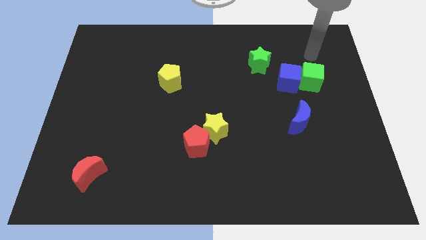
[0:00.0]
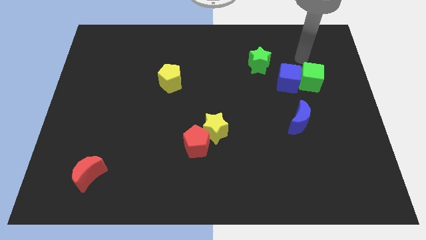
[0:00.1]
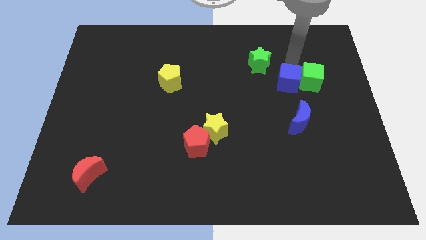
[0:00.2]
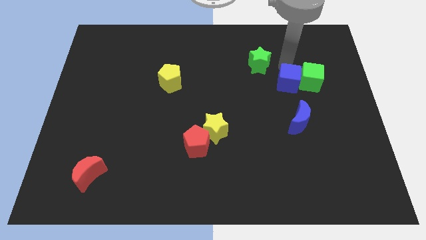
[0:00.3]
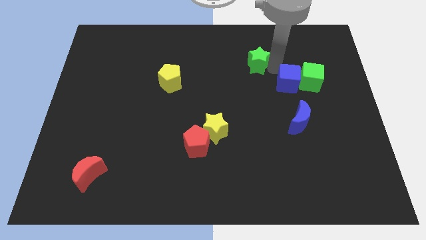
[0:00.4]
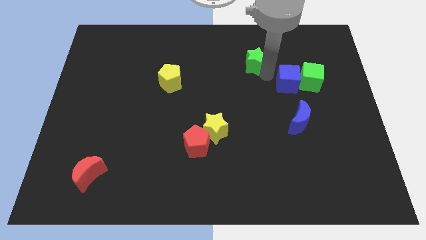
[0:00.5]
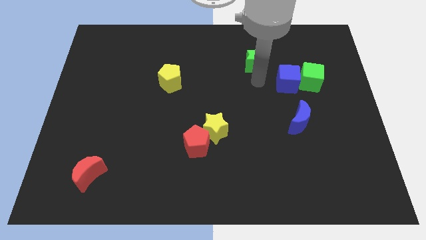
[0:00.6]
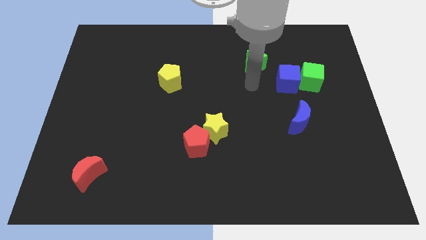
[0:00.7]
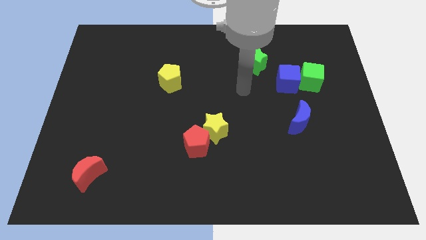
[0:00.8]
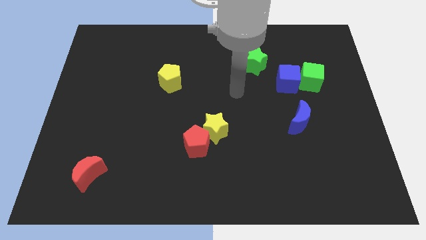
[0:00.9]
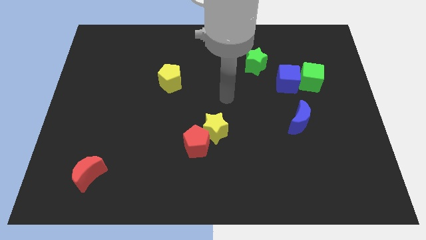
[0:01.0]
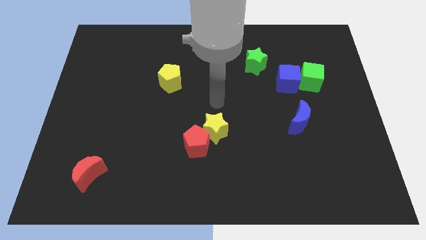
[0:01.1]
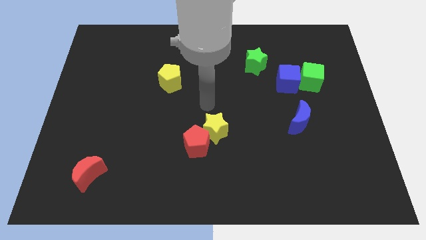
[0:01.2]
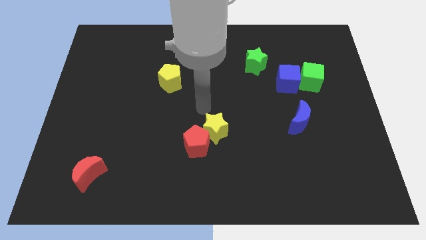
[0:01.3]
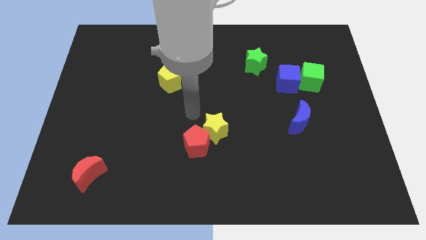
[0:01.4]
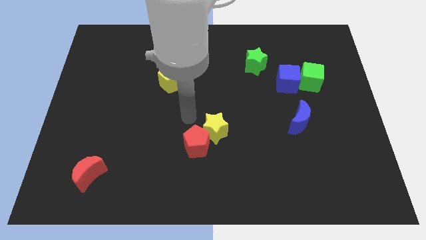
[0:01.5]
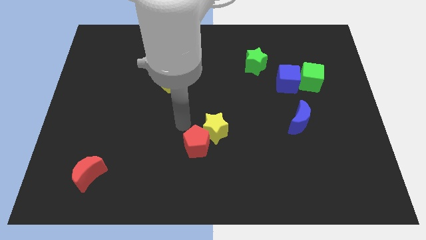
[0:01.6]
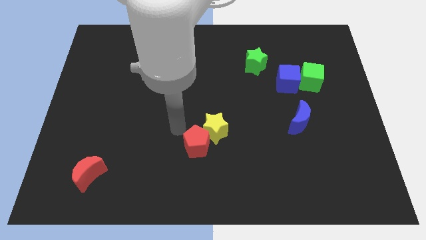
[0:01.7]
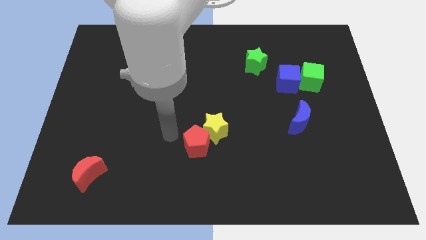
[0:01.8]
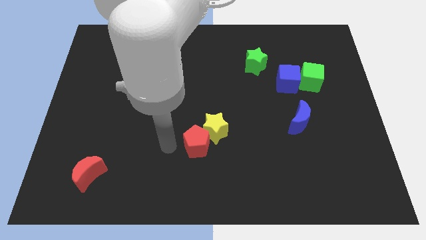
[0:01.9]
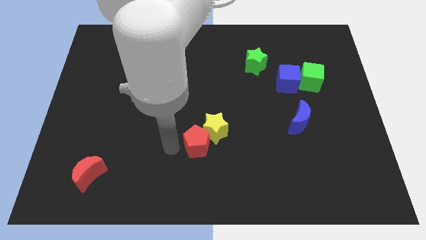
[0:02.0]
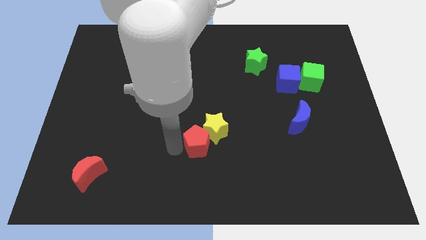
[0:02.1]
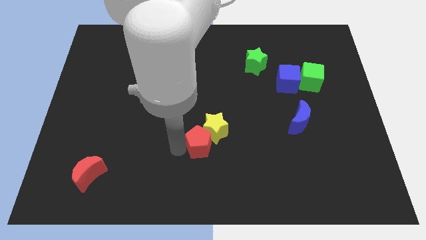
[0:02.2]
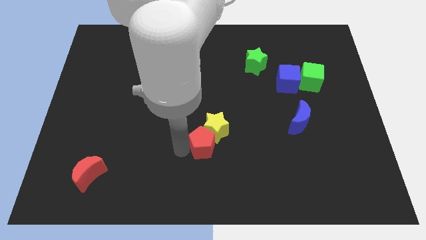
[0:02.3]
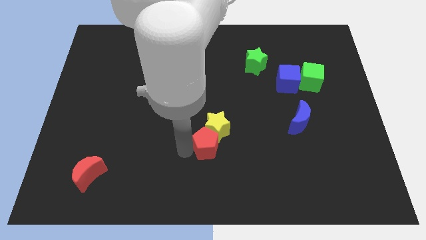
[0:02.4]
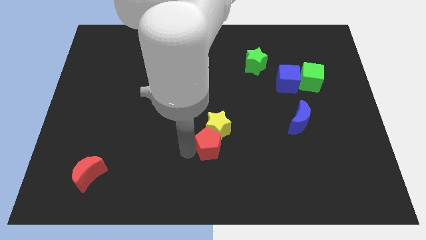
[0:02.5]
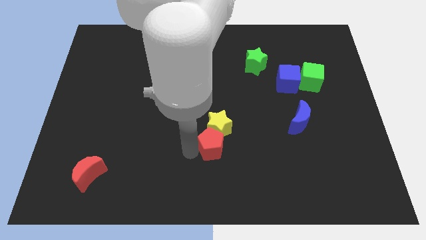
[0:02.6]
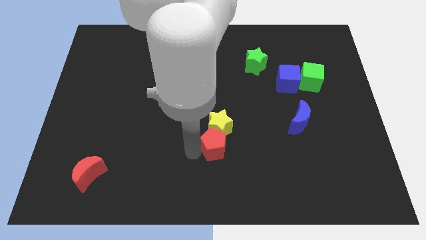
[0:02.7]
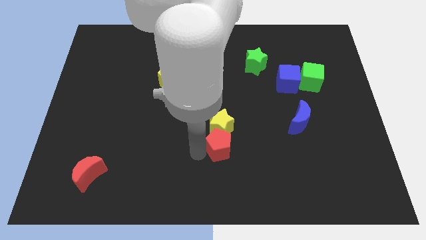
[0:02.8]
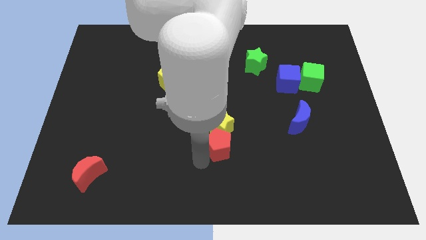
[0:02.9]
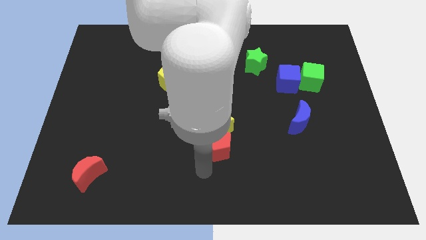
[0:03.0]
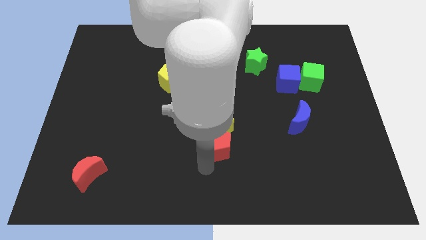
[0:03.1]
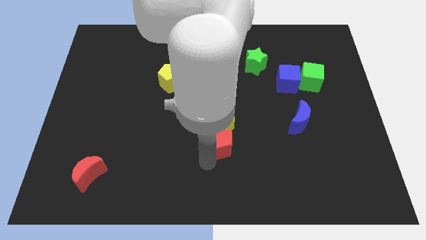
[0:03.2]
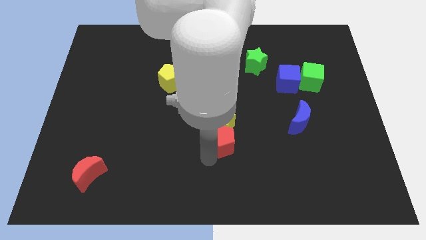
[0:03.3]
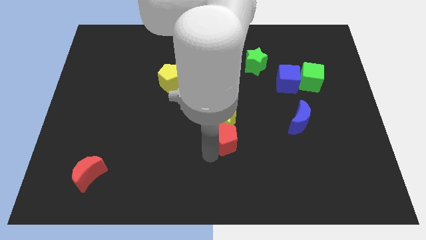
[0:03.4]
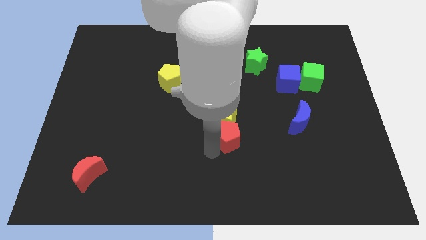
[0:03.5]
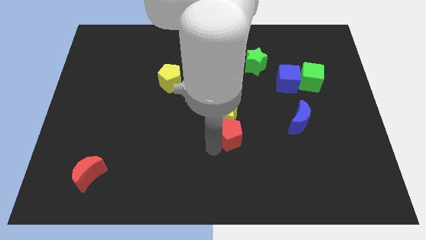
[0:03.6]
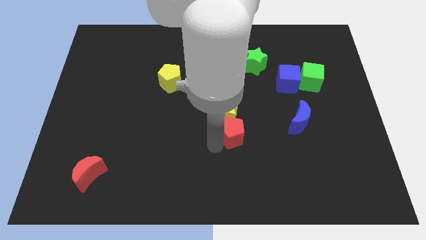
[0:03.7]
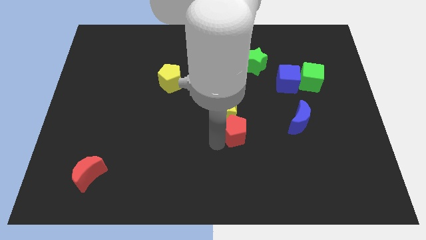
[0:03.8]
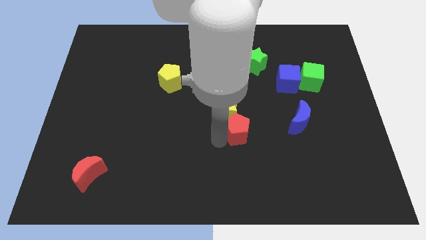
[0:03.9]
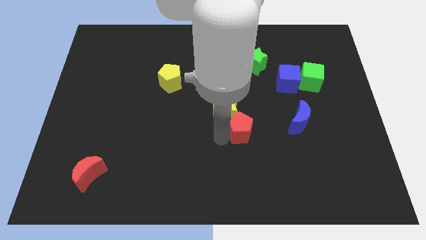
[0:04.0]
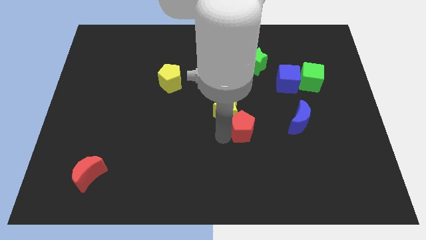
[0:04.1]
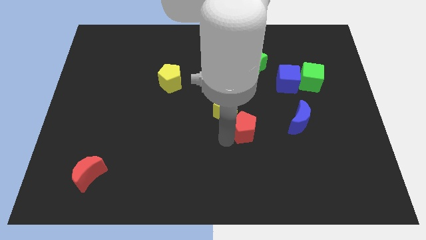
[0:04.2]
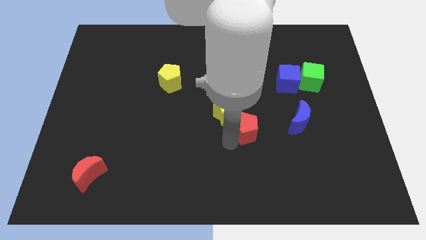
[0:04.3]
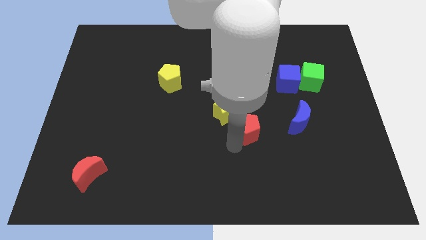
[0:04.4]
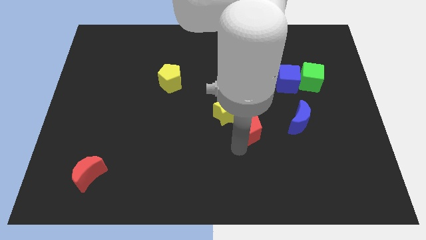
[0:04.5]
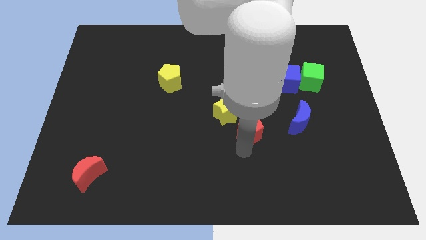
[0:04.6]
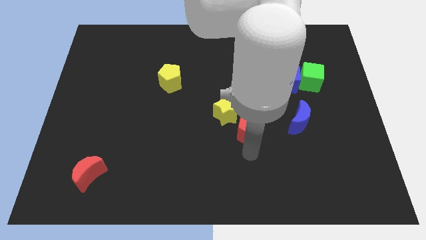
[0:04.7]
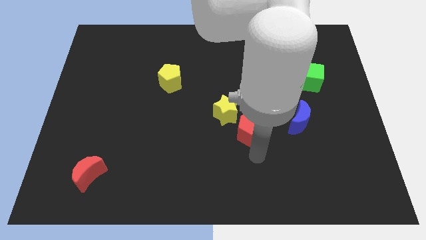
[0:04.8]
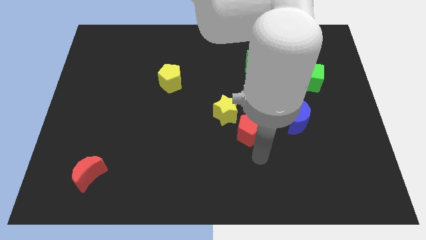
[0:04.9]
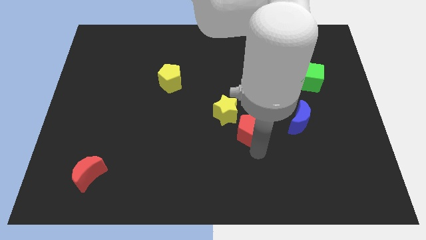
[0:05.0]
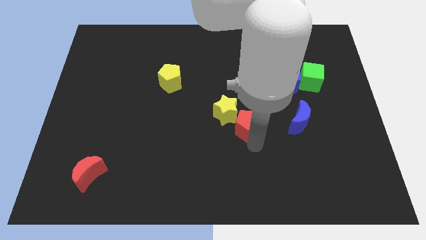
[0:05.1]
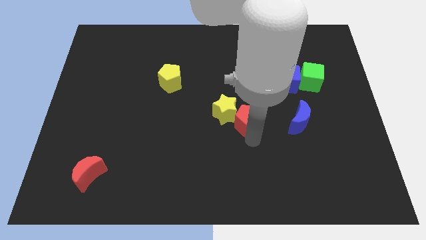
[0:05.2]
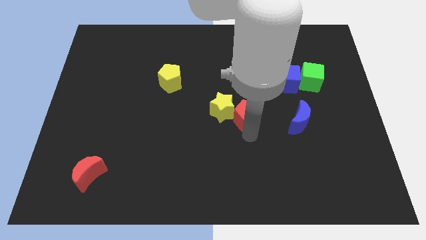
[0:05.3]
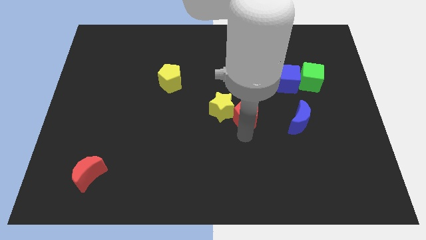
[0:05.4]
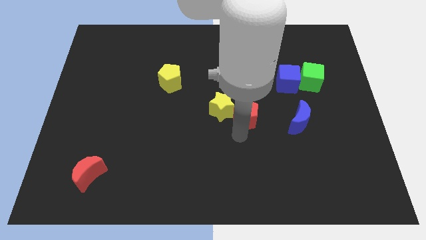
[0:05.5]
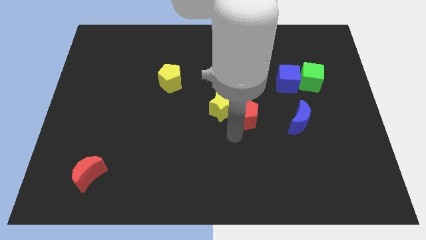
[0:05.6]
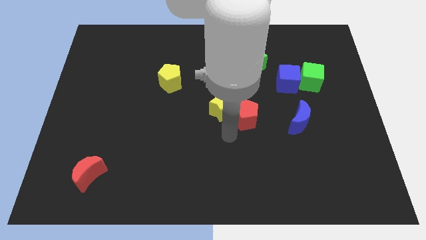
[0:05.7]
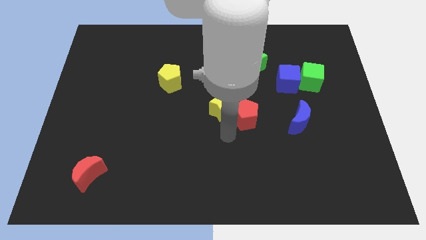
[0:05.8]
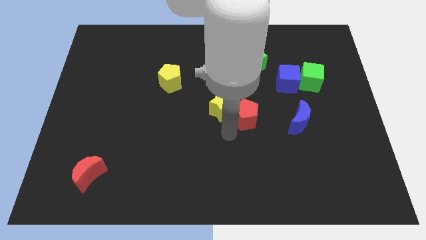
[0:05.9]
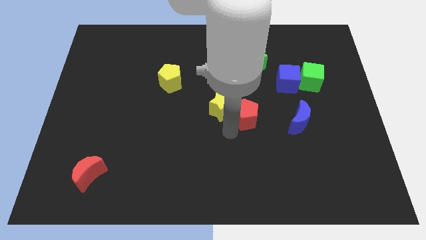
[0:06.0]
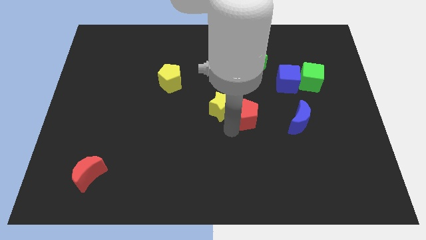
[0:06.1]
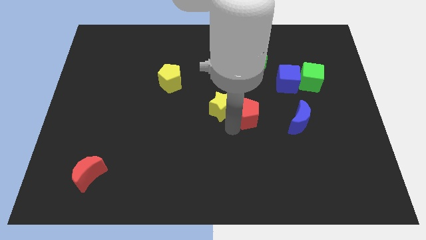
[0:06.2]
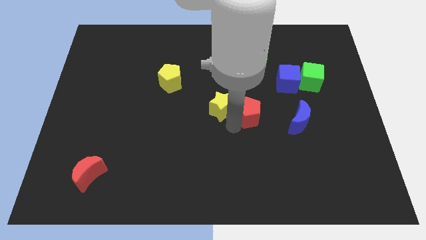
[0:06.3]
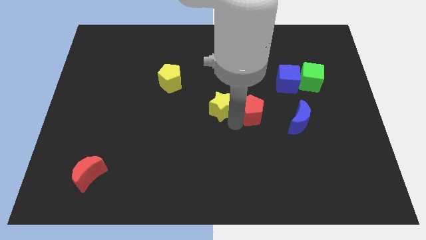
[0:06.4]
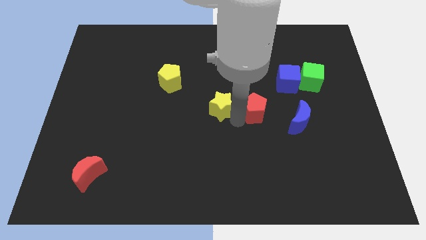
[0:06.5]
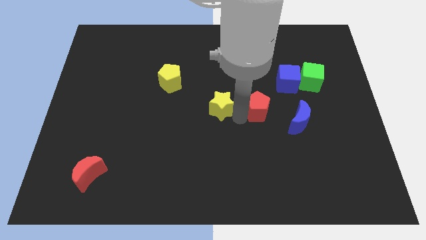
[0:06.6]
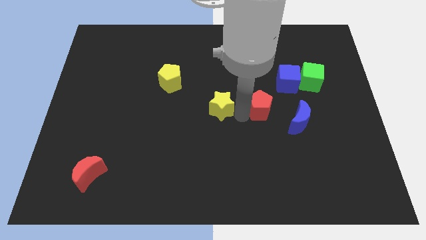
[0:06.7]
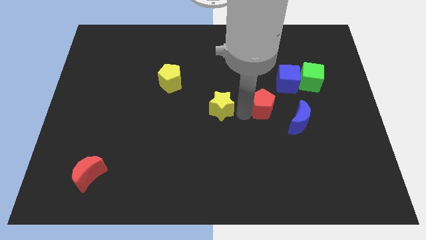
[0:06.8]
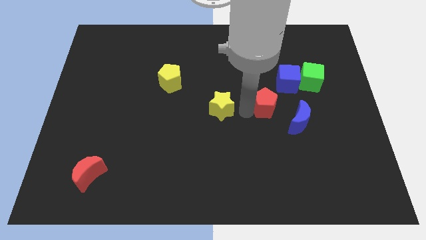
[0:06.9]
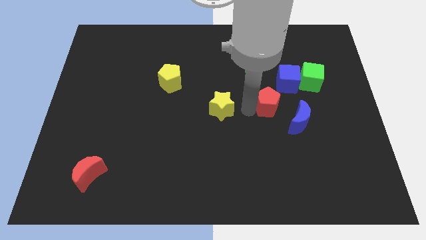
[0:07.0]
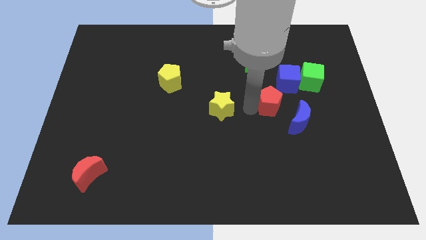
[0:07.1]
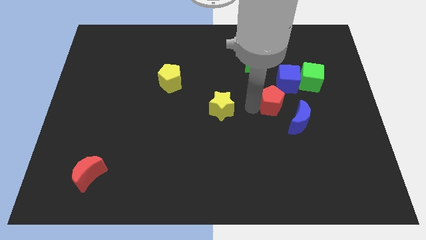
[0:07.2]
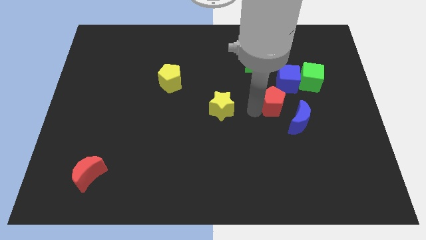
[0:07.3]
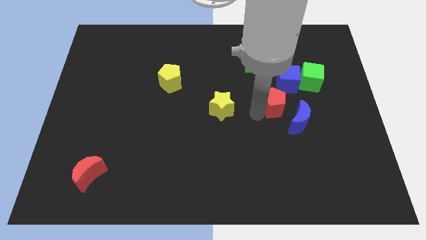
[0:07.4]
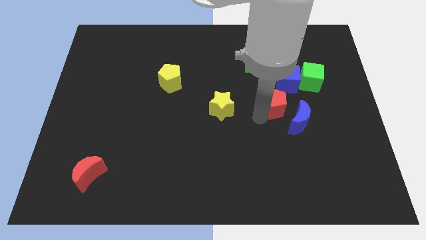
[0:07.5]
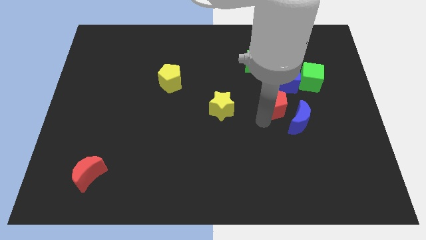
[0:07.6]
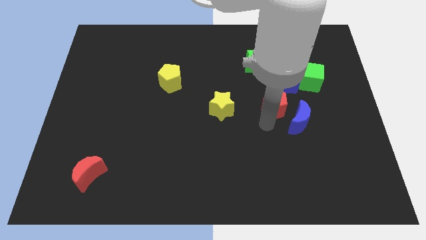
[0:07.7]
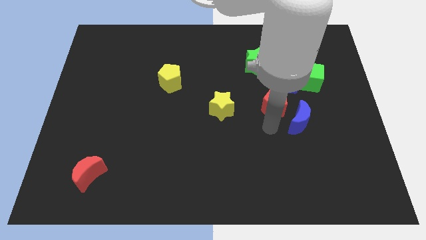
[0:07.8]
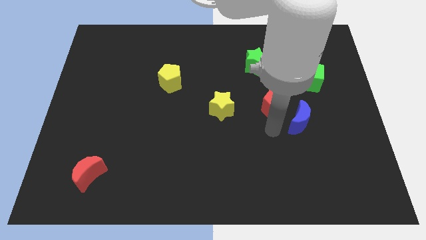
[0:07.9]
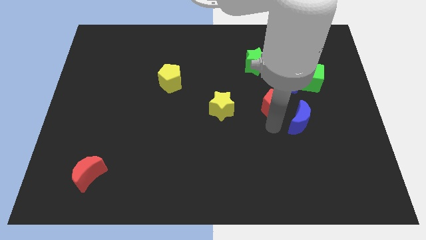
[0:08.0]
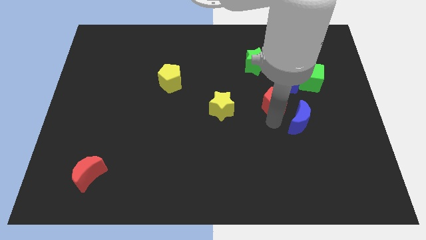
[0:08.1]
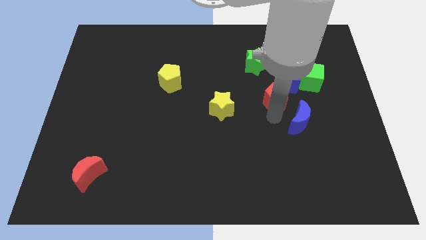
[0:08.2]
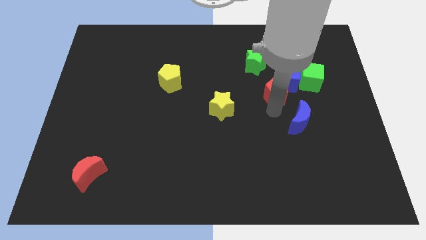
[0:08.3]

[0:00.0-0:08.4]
slide the red pentagon to the blue cube
